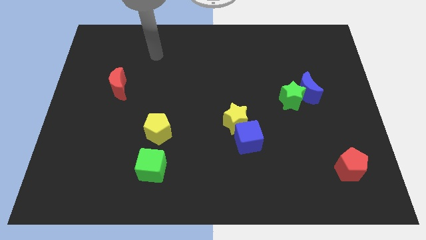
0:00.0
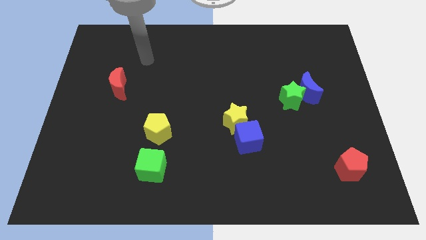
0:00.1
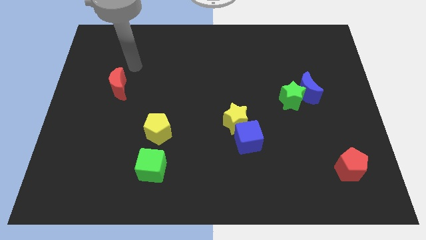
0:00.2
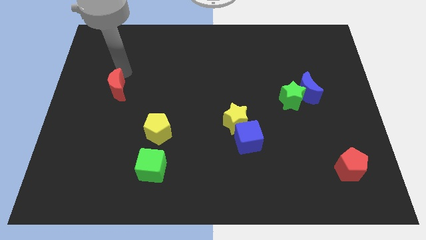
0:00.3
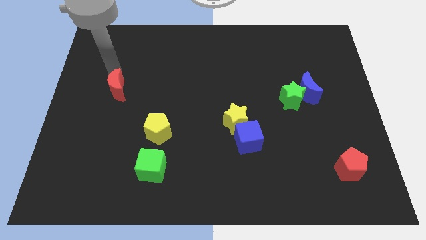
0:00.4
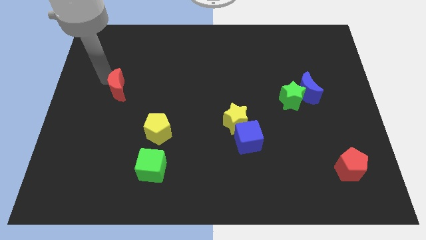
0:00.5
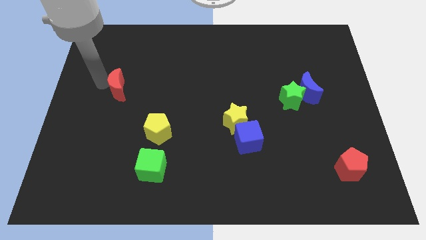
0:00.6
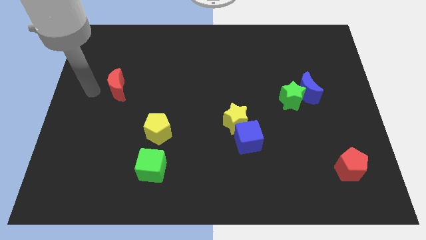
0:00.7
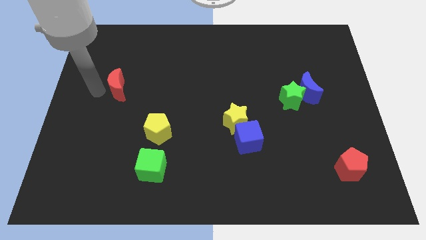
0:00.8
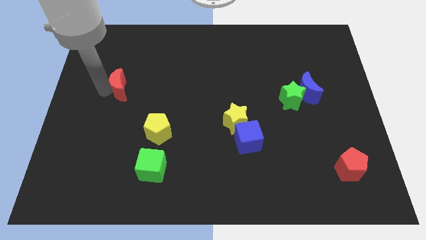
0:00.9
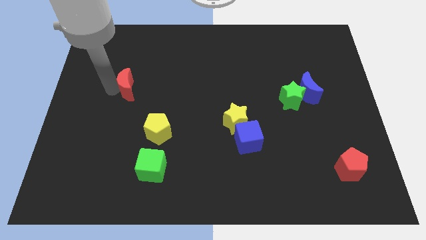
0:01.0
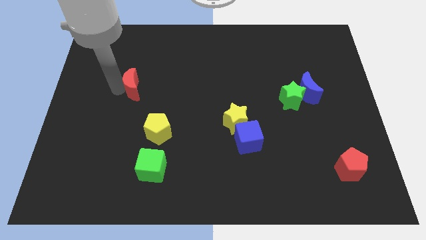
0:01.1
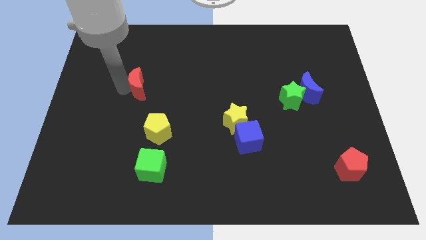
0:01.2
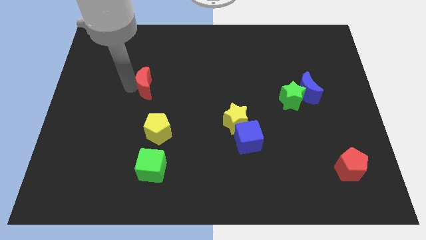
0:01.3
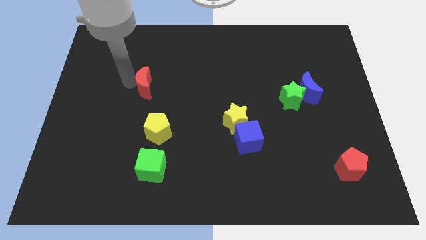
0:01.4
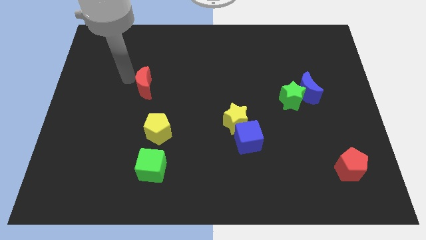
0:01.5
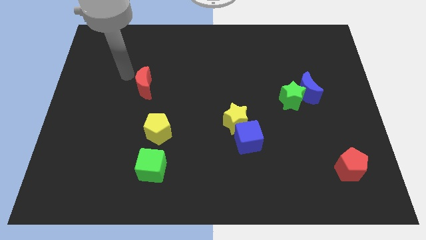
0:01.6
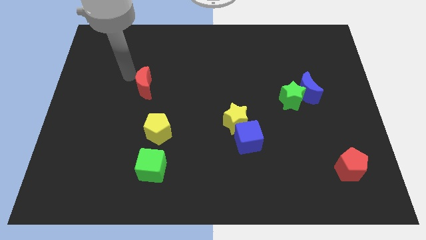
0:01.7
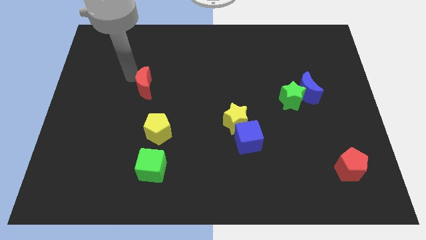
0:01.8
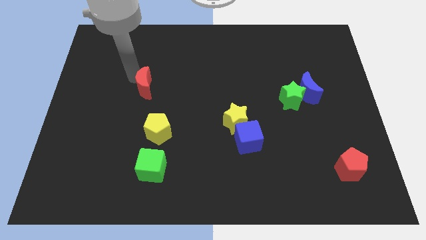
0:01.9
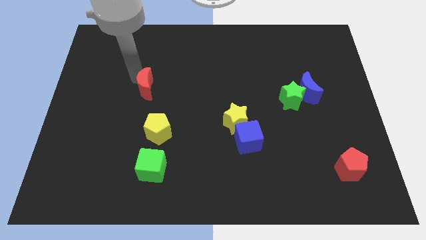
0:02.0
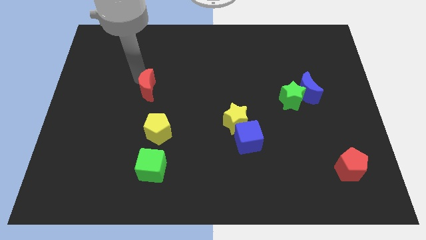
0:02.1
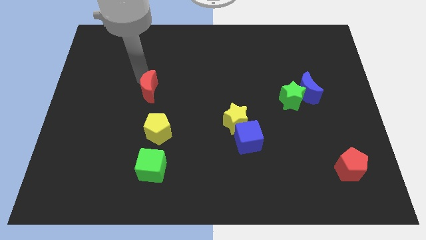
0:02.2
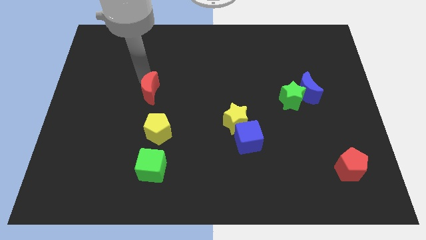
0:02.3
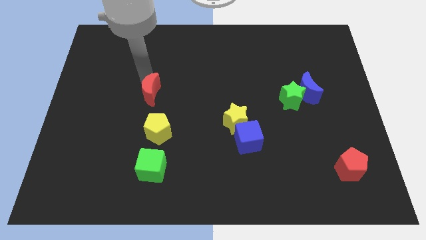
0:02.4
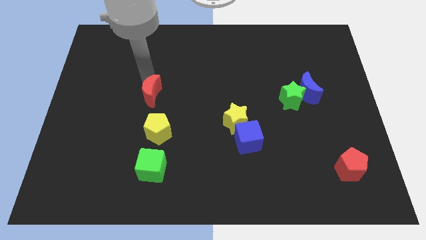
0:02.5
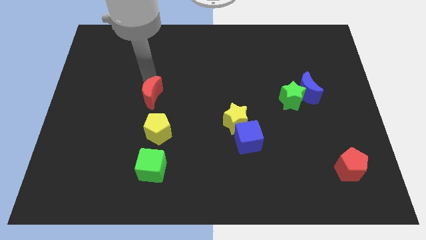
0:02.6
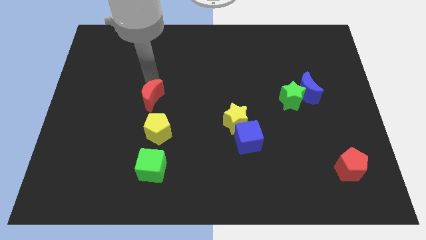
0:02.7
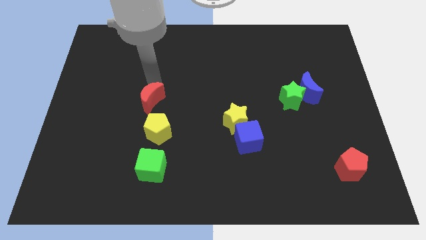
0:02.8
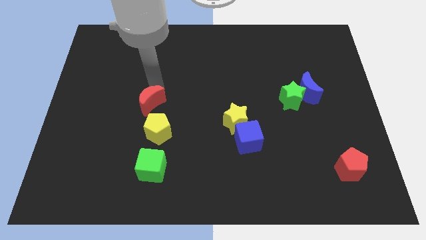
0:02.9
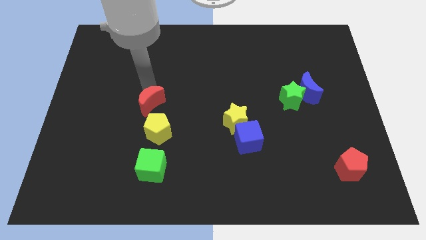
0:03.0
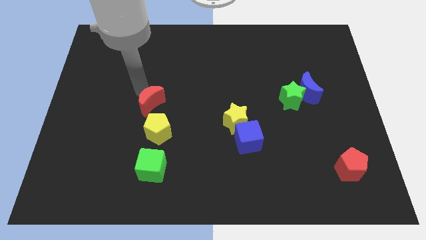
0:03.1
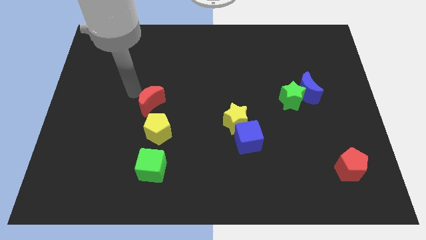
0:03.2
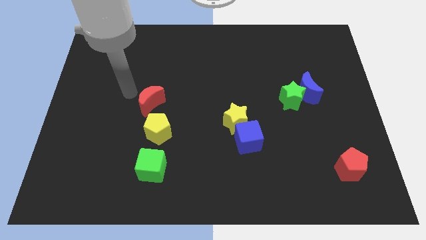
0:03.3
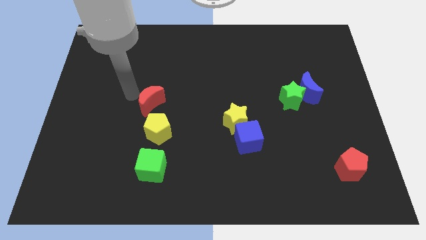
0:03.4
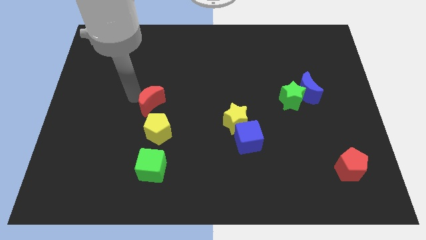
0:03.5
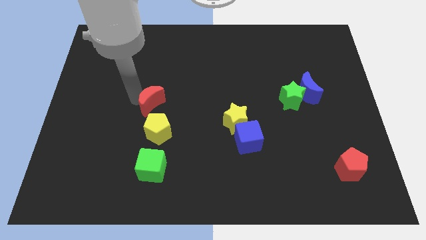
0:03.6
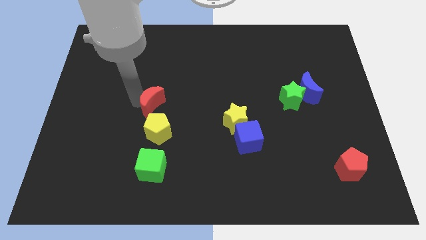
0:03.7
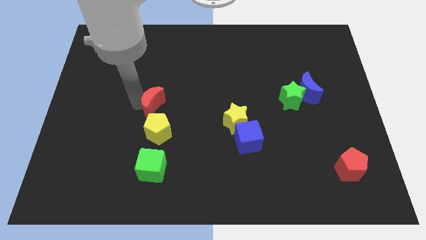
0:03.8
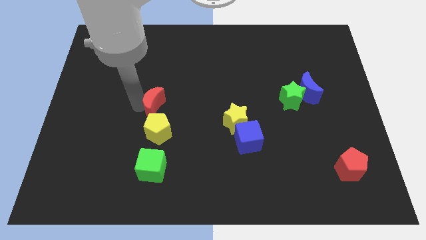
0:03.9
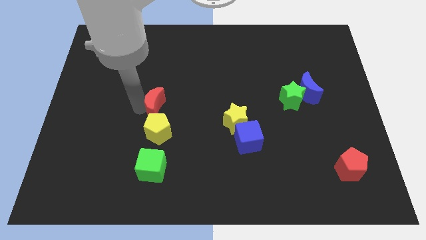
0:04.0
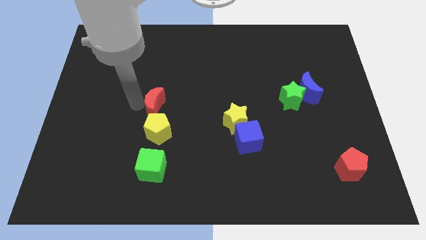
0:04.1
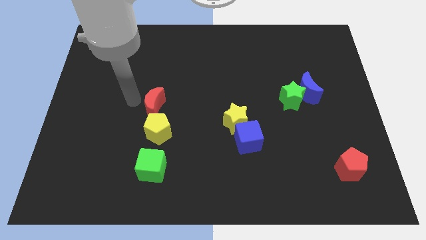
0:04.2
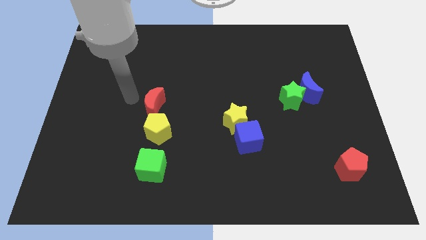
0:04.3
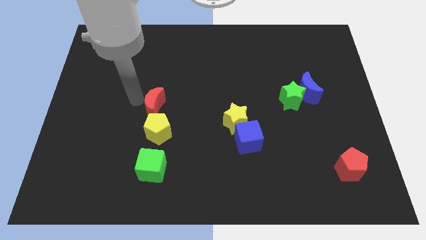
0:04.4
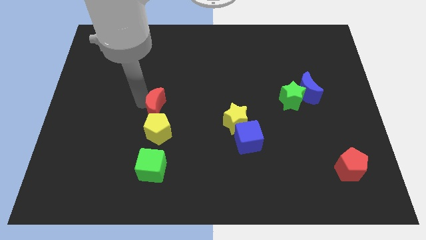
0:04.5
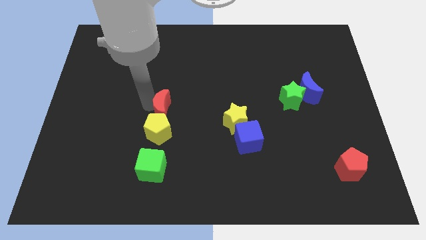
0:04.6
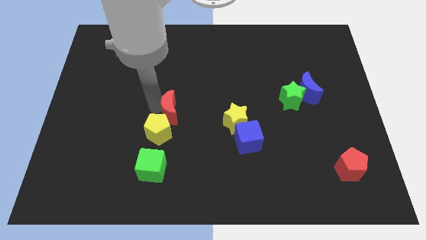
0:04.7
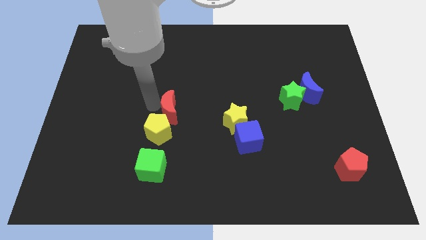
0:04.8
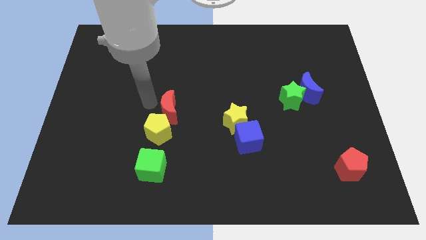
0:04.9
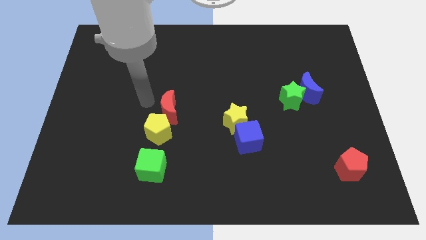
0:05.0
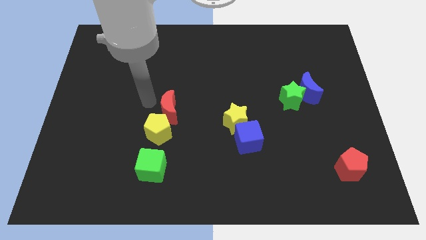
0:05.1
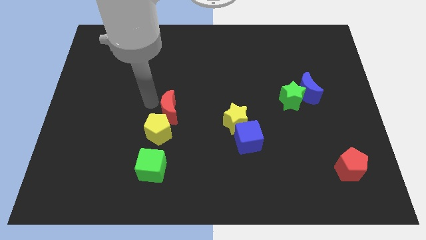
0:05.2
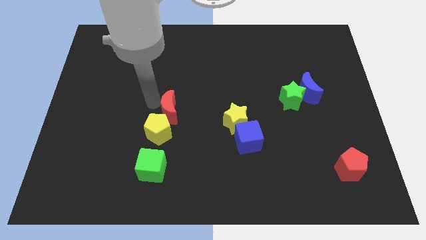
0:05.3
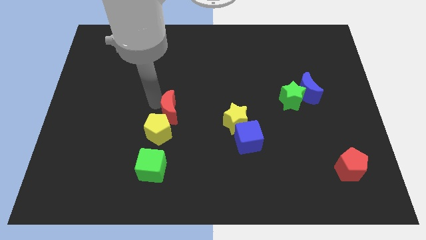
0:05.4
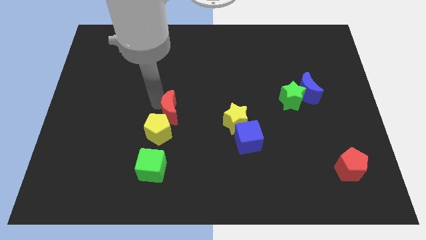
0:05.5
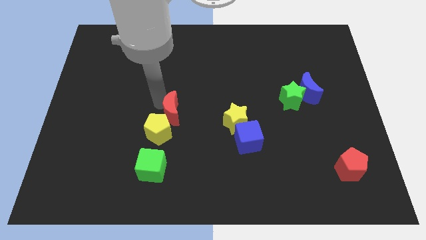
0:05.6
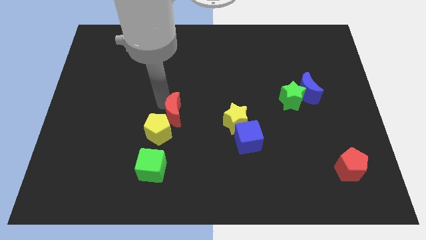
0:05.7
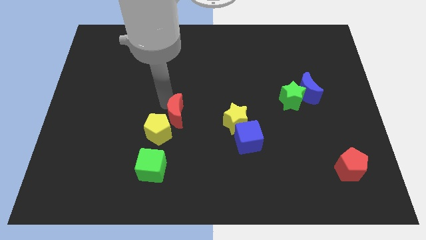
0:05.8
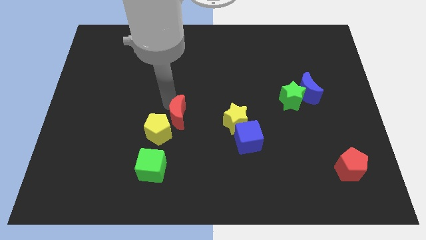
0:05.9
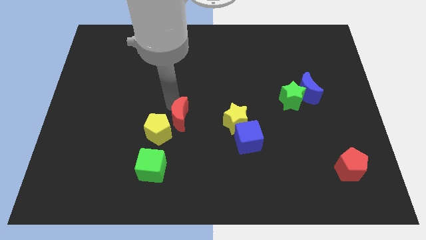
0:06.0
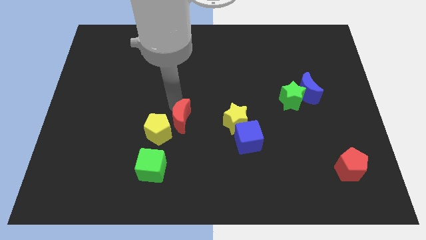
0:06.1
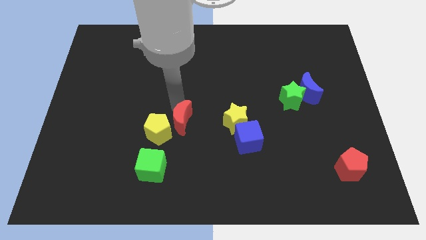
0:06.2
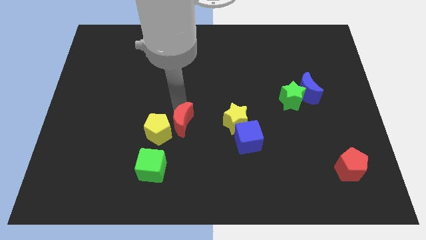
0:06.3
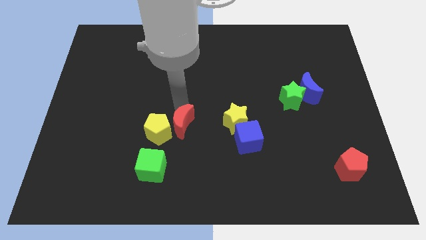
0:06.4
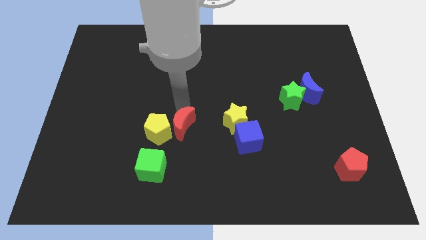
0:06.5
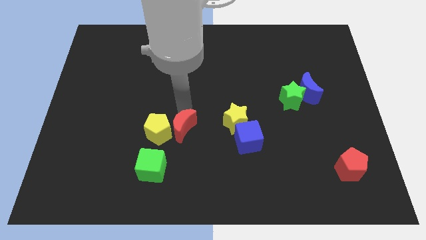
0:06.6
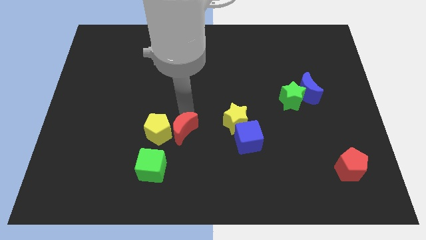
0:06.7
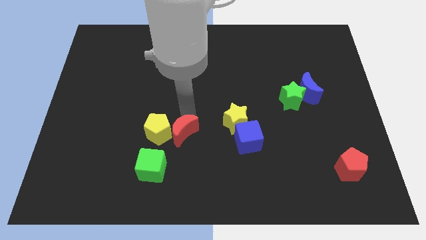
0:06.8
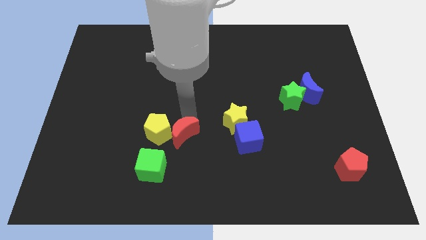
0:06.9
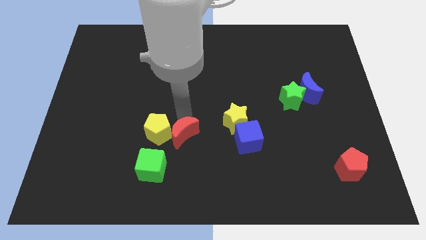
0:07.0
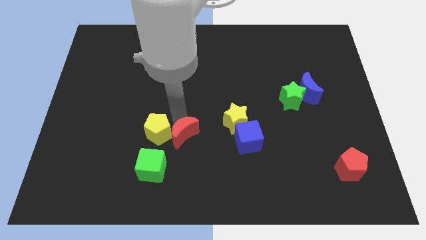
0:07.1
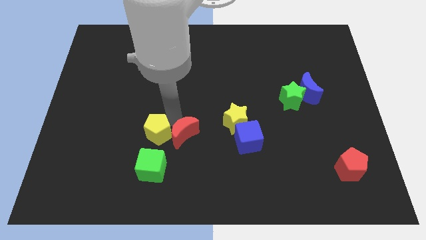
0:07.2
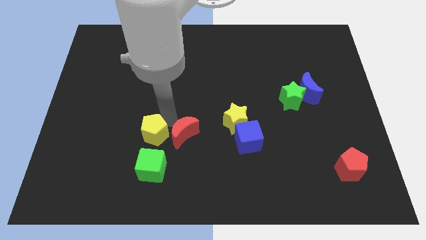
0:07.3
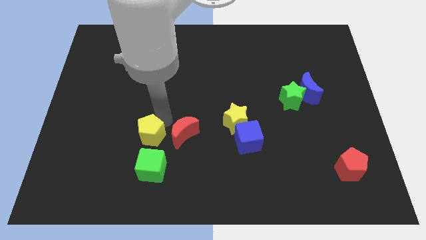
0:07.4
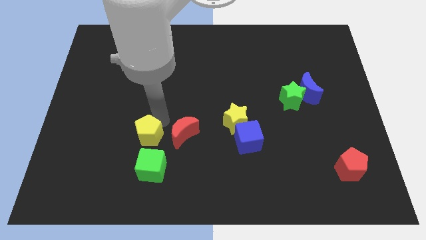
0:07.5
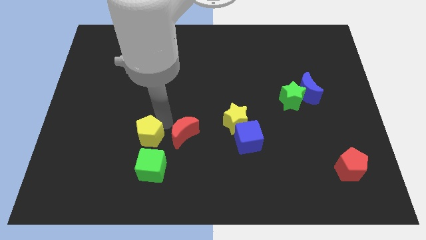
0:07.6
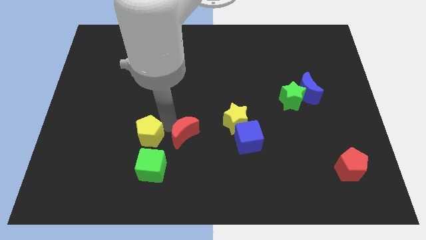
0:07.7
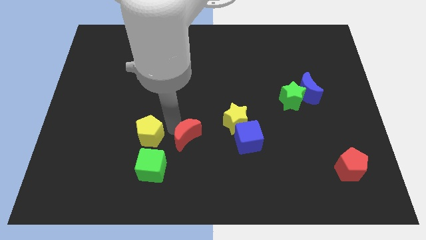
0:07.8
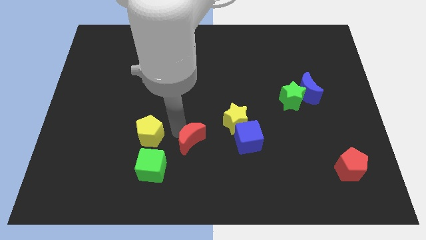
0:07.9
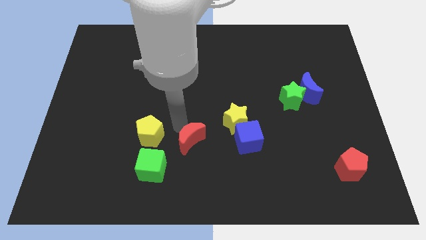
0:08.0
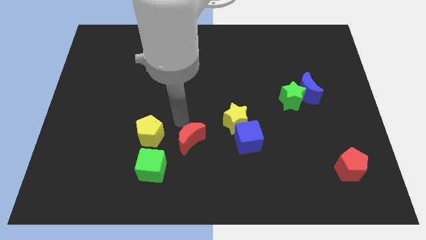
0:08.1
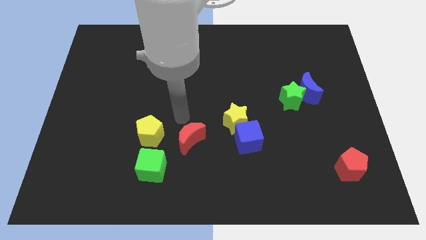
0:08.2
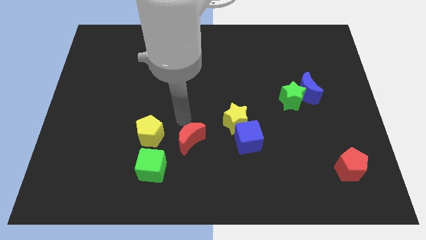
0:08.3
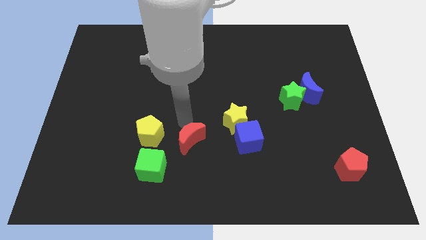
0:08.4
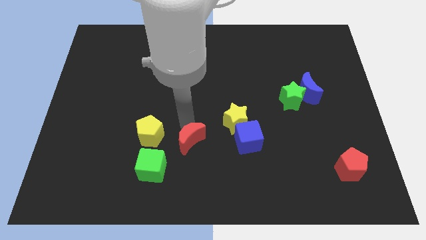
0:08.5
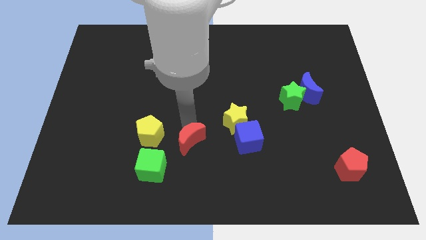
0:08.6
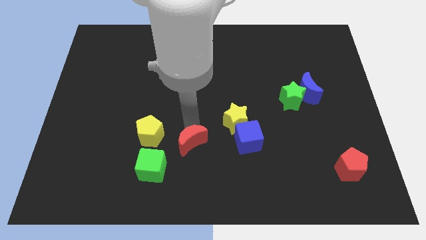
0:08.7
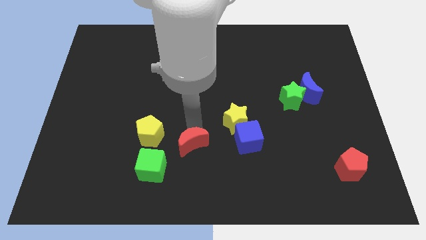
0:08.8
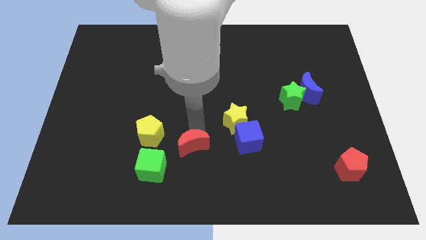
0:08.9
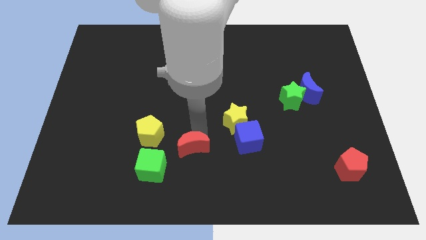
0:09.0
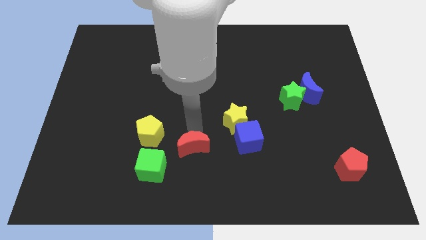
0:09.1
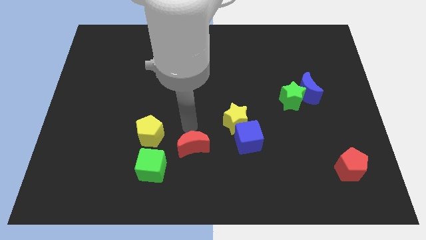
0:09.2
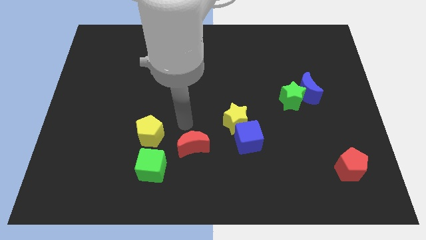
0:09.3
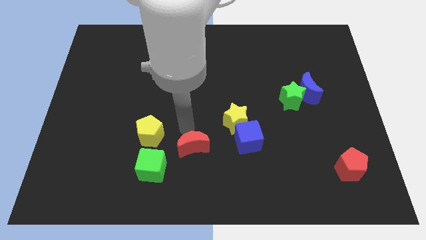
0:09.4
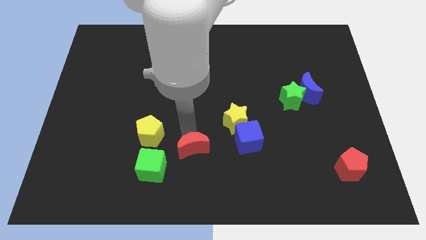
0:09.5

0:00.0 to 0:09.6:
put the red moon right of the green cube
